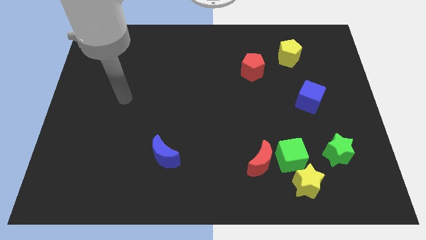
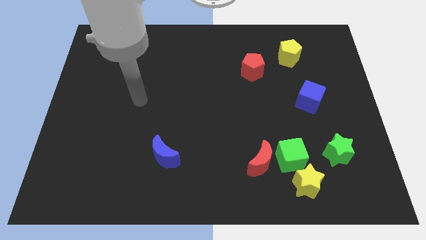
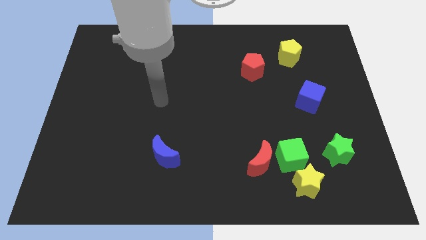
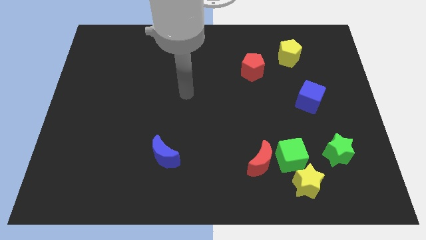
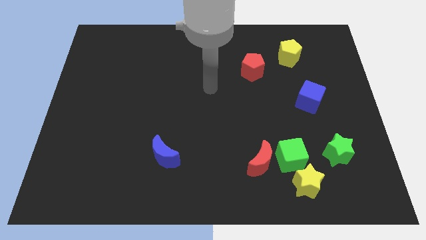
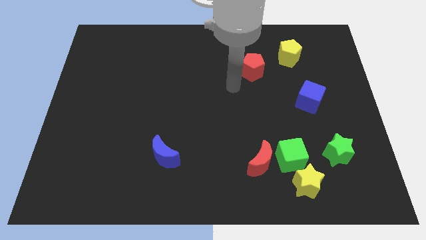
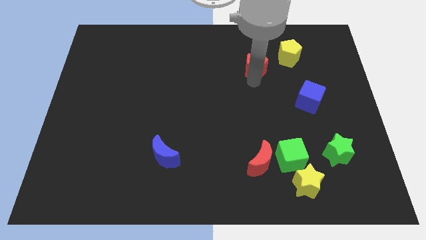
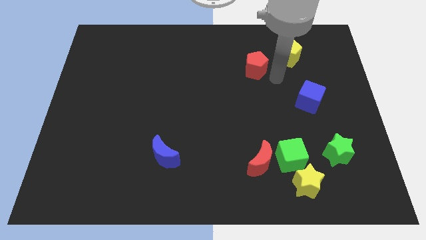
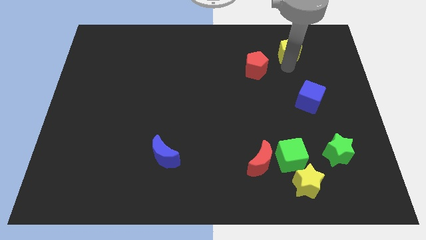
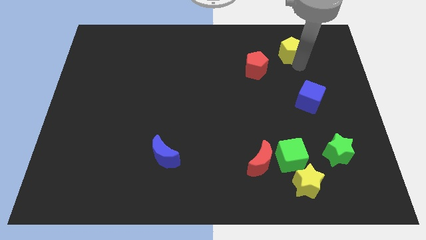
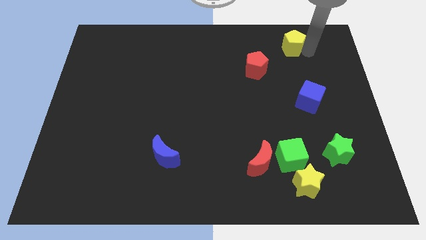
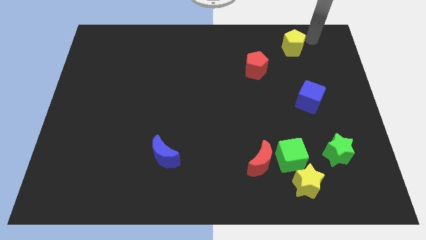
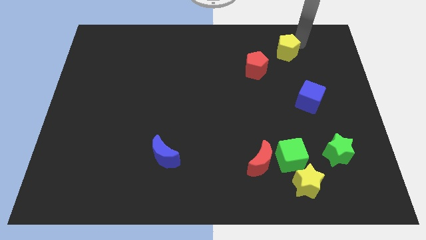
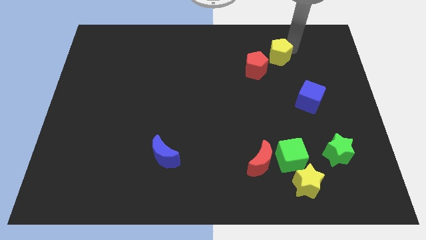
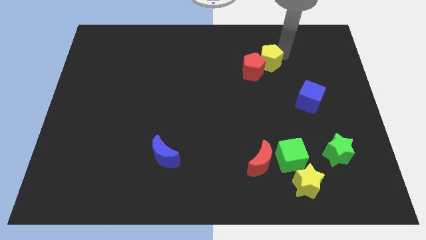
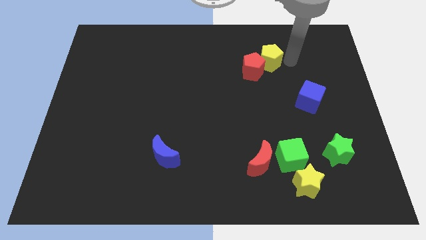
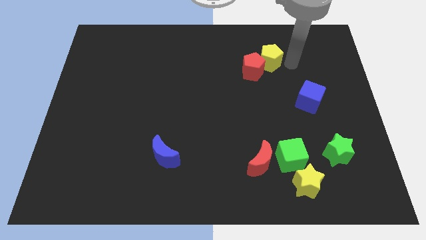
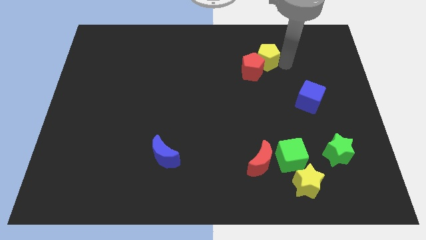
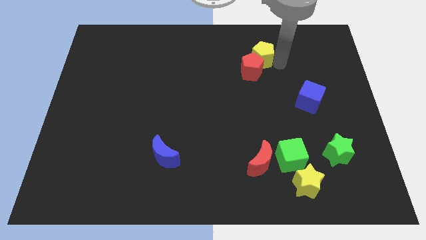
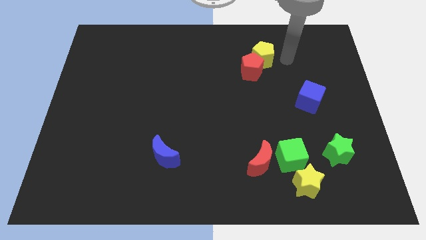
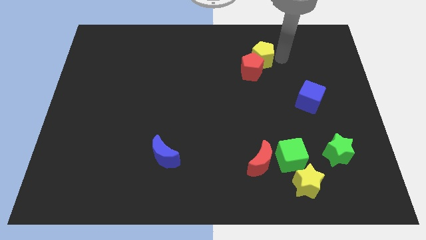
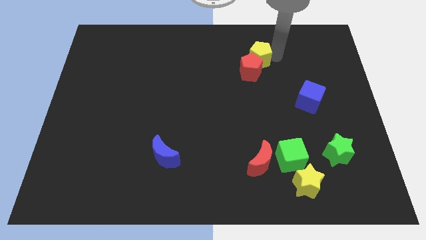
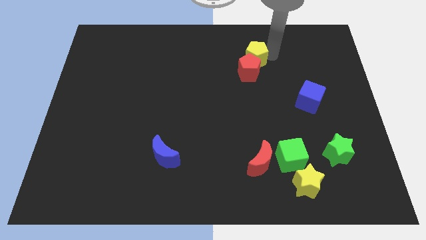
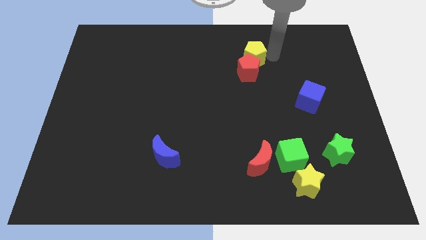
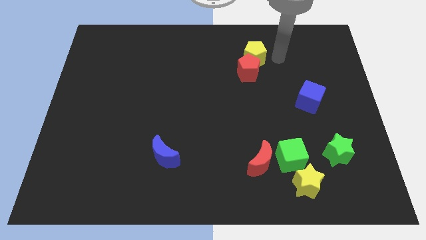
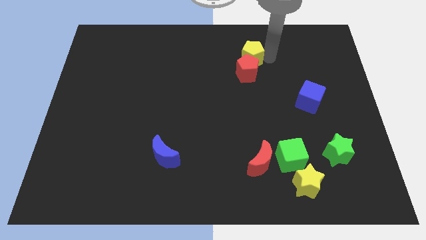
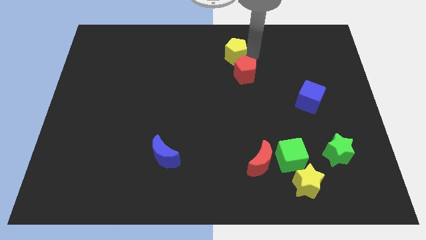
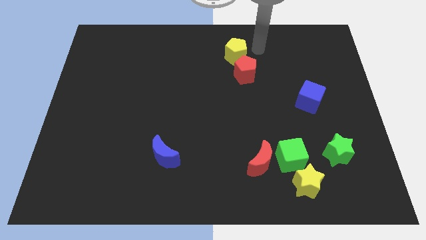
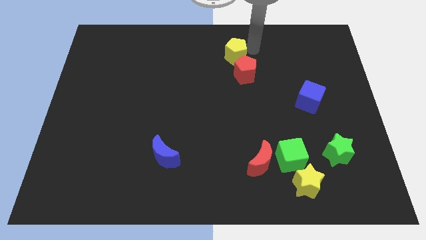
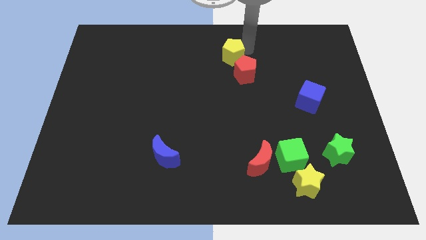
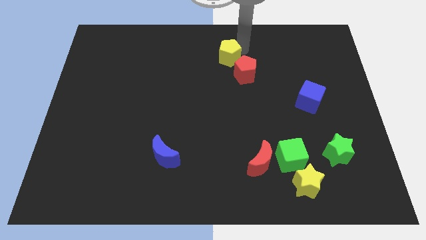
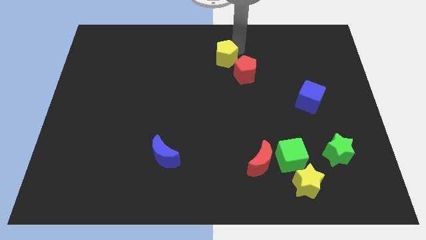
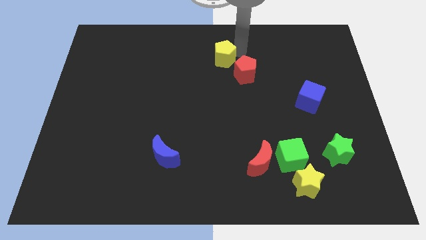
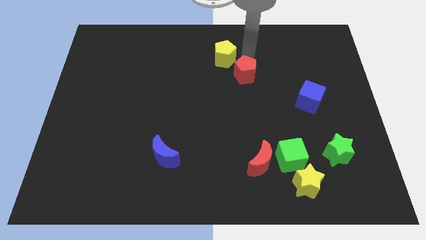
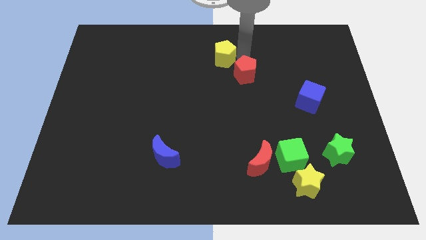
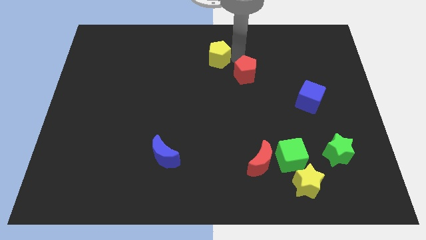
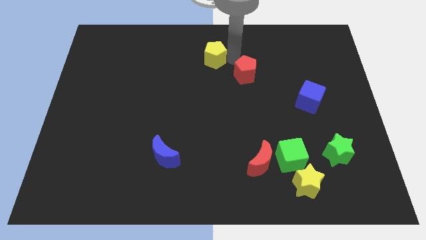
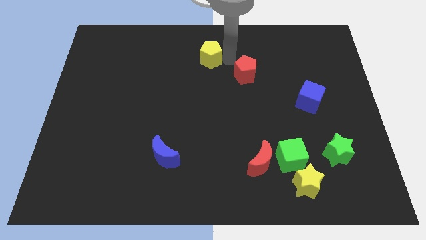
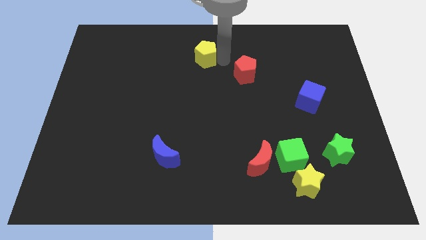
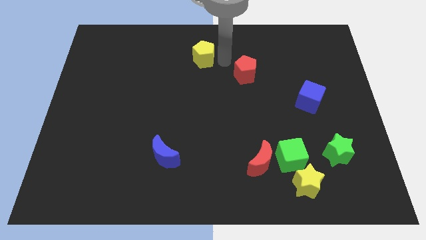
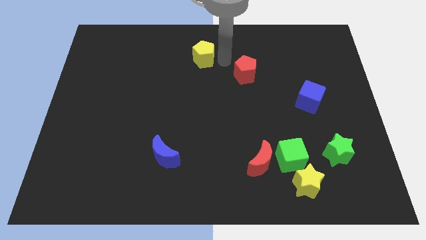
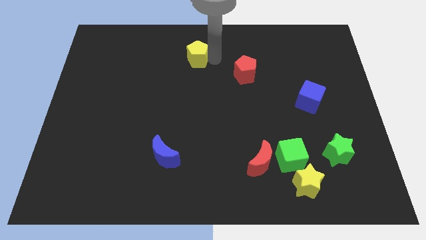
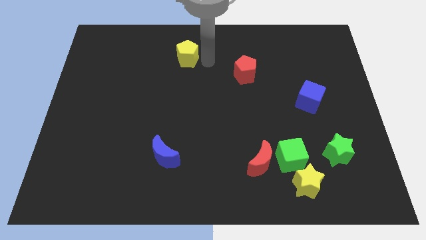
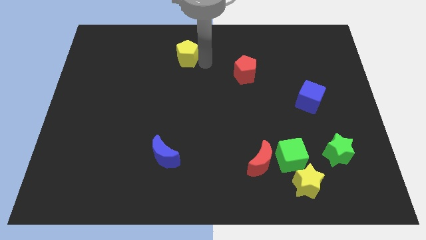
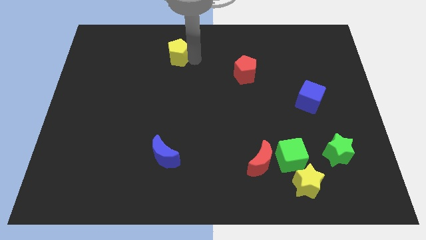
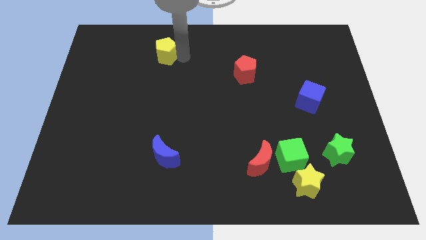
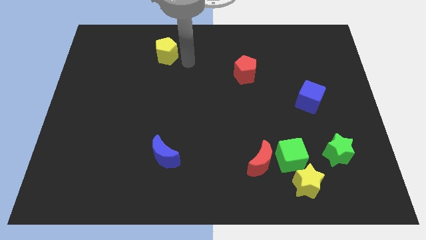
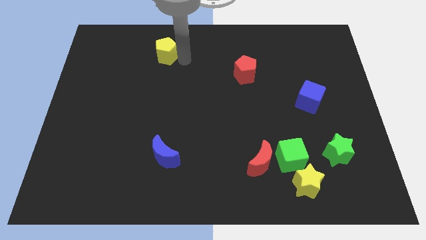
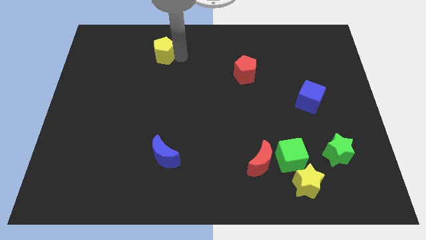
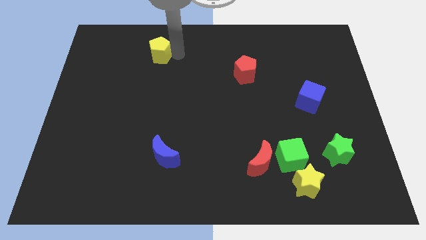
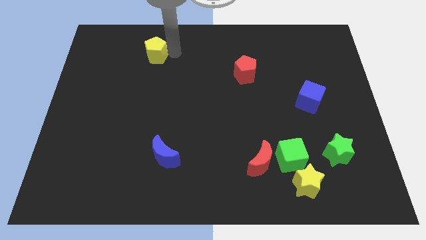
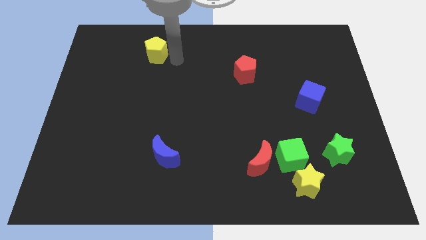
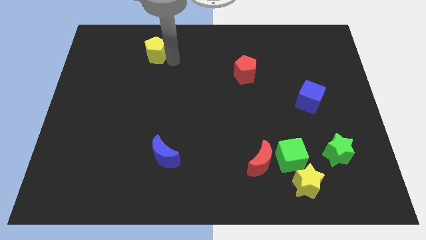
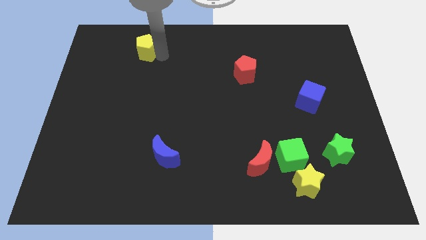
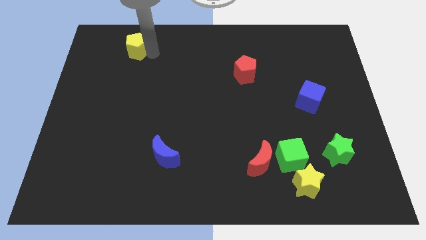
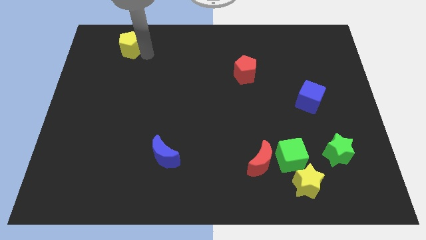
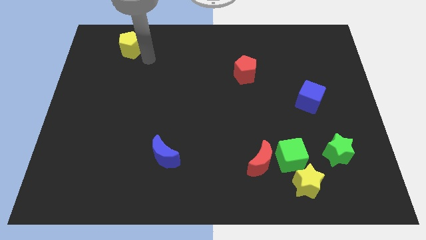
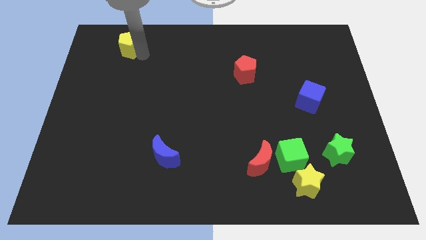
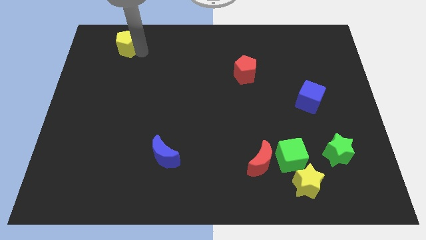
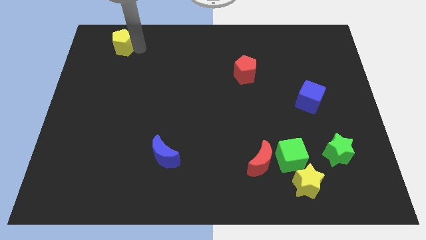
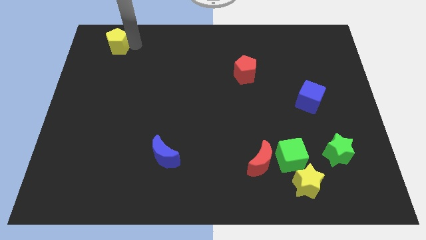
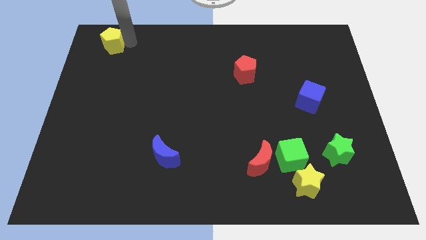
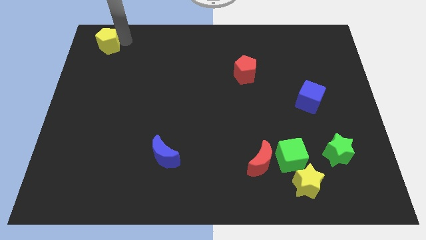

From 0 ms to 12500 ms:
push the yellow pentagon to the upper left corner
